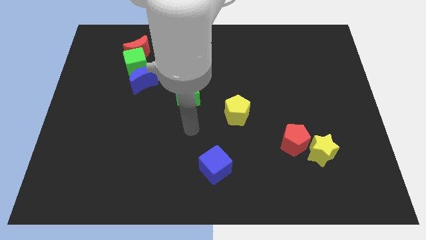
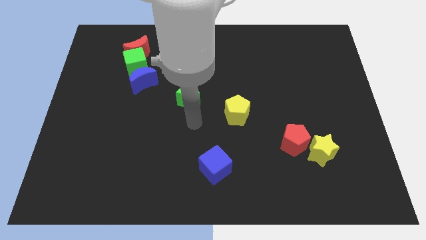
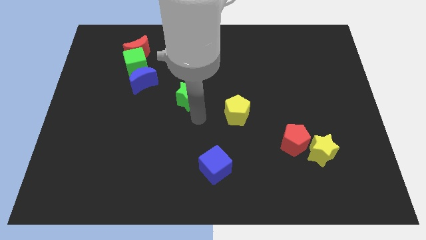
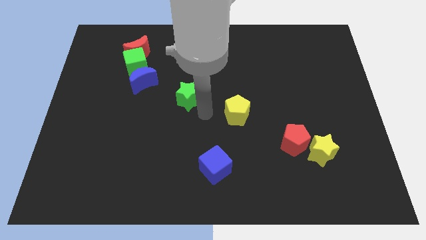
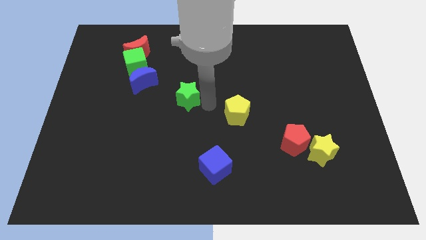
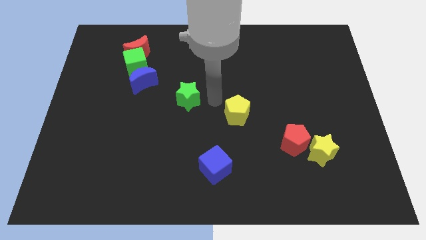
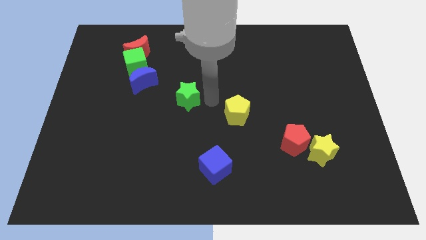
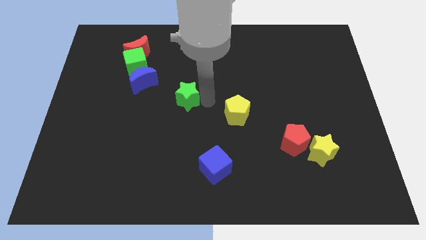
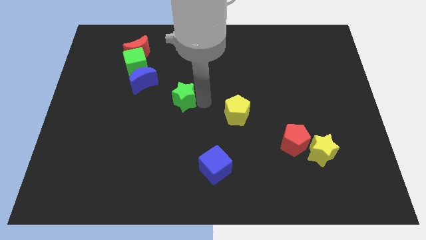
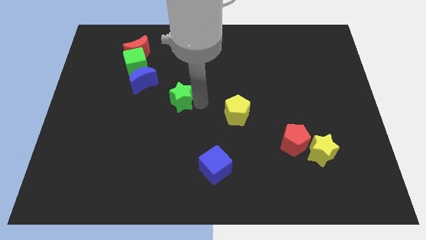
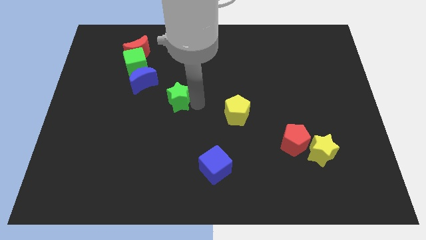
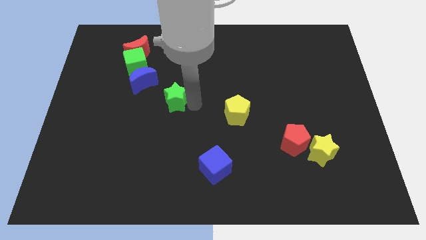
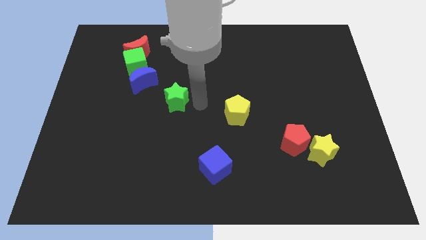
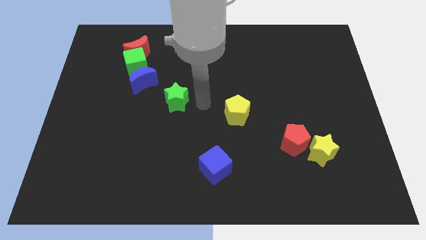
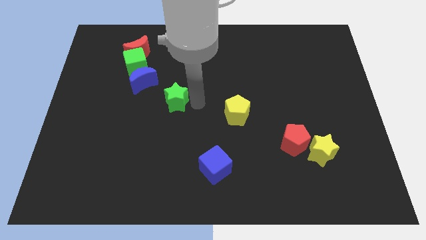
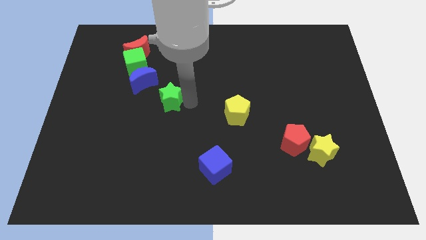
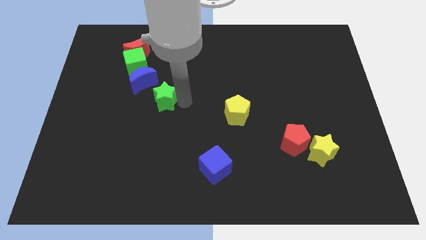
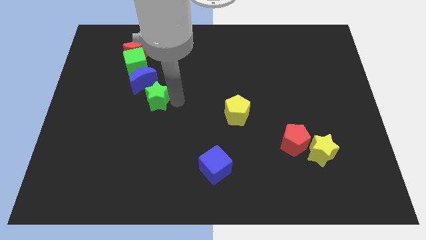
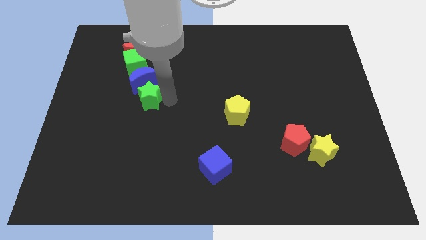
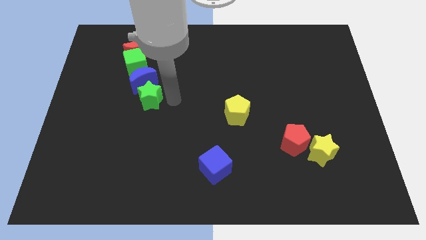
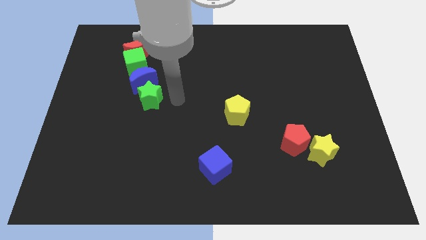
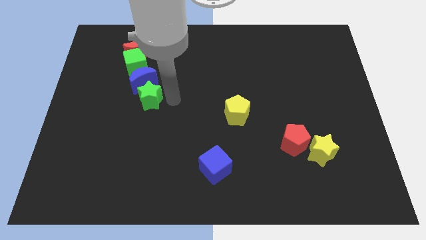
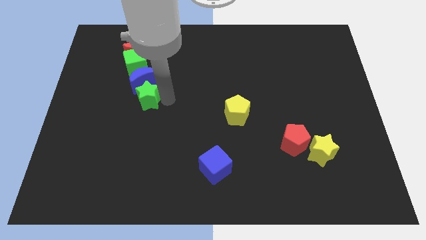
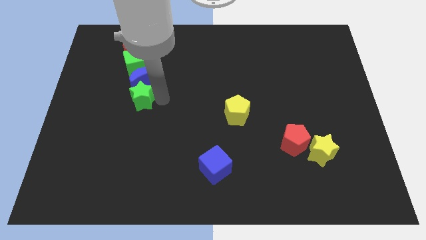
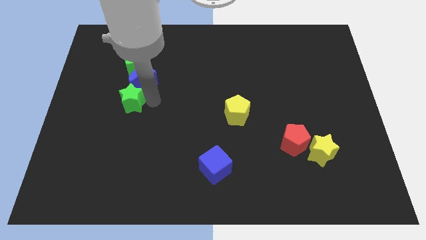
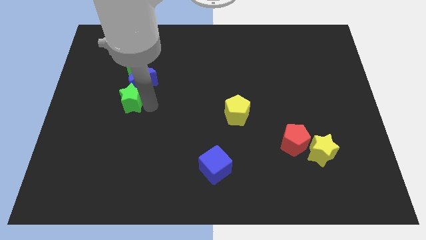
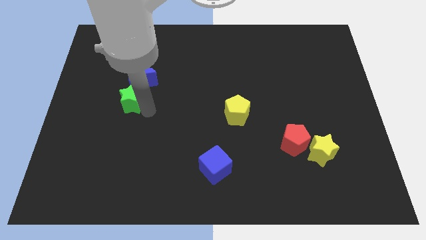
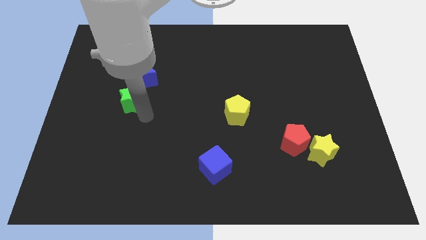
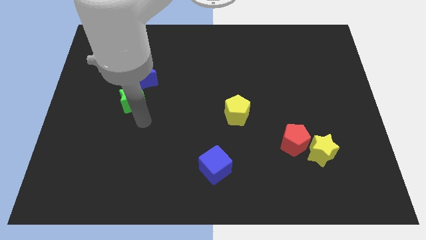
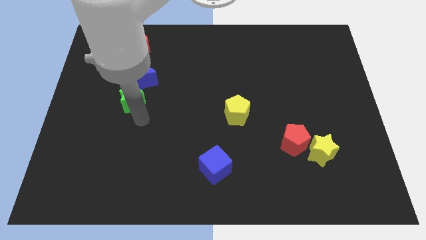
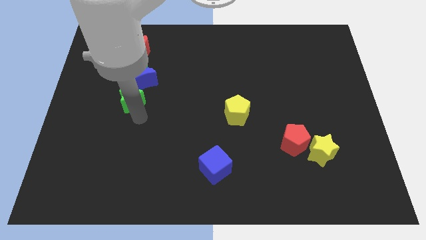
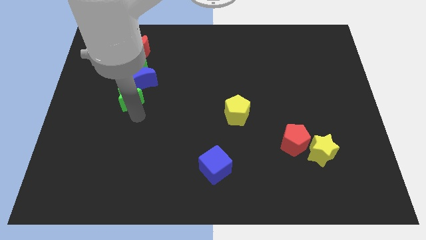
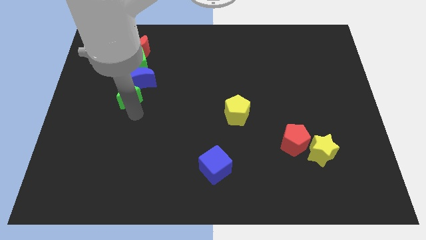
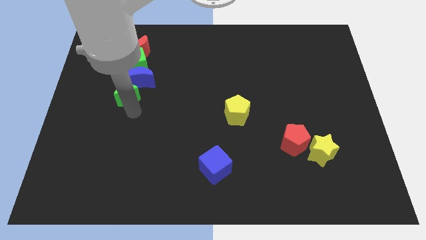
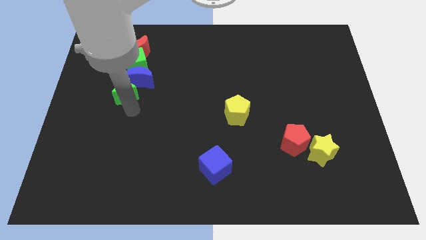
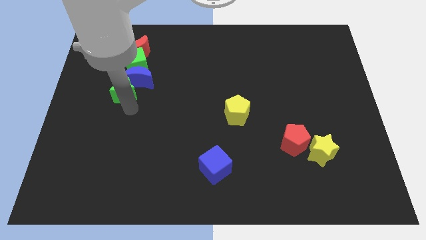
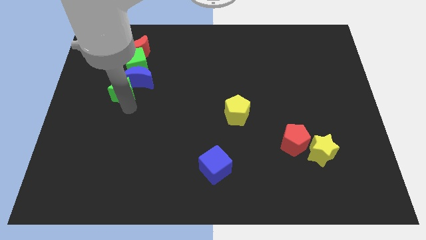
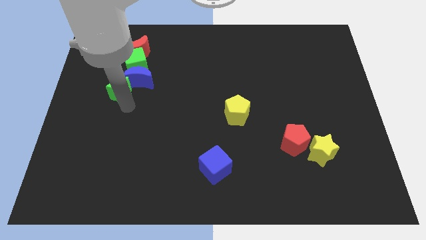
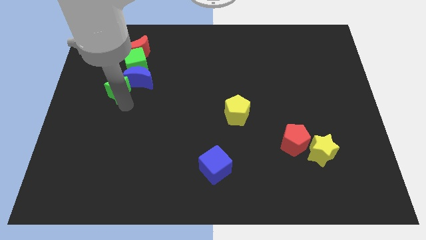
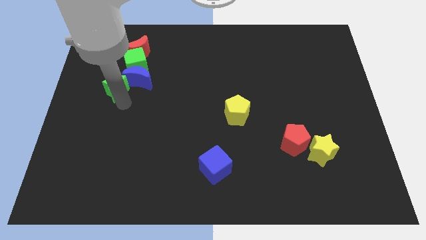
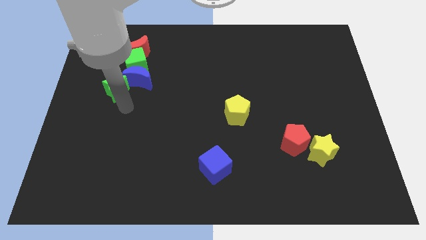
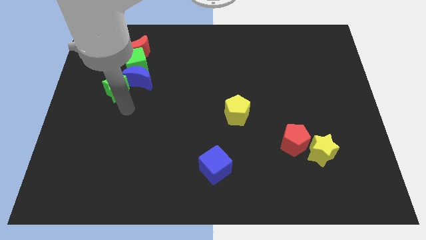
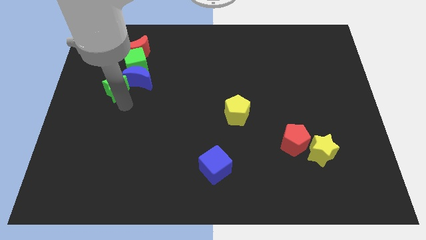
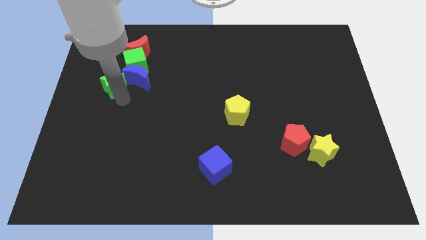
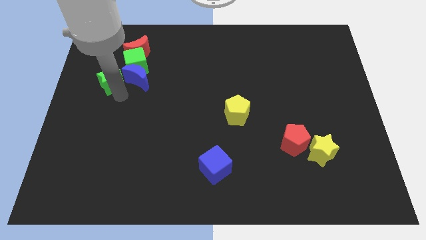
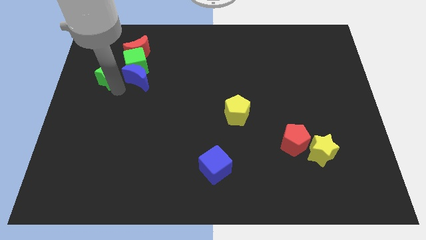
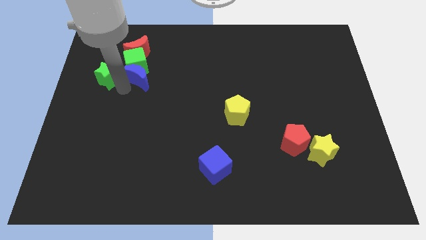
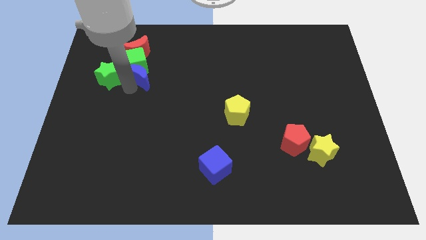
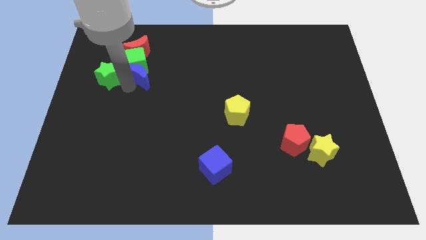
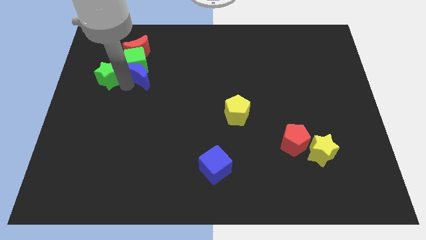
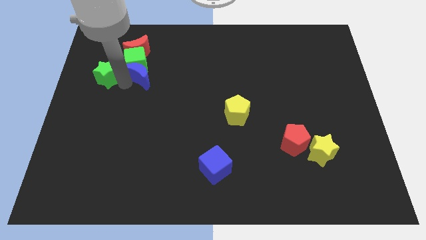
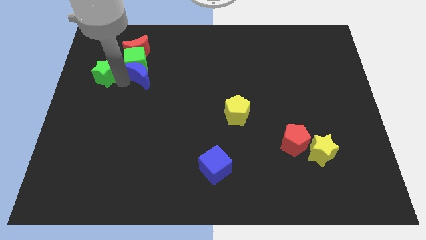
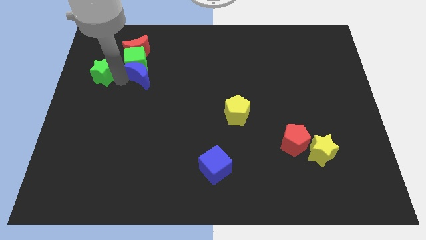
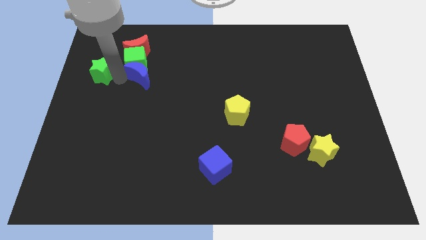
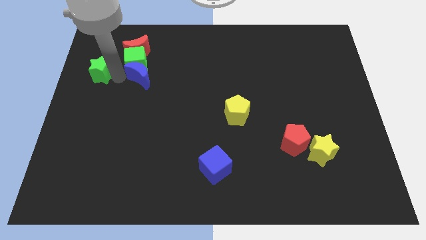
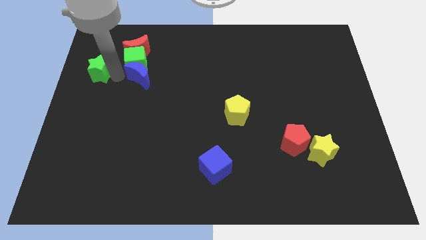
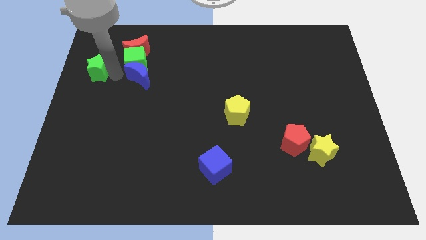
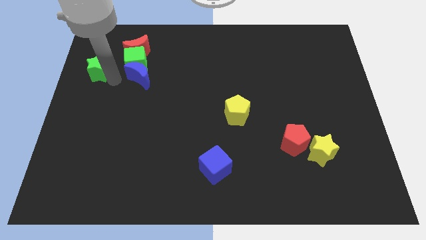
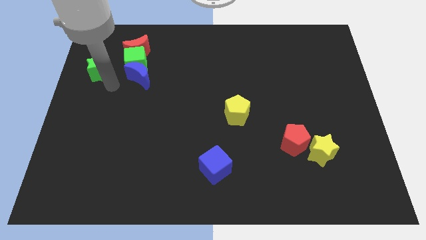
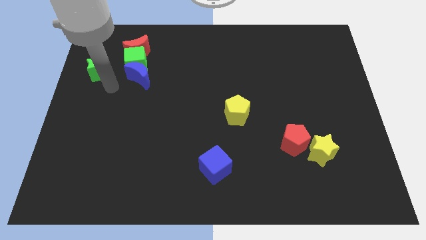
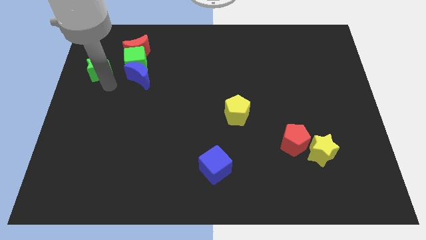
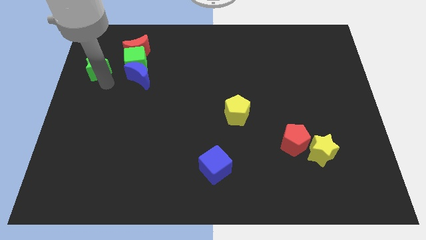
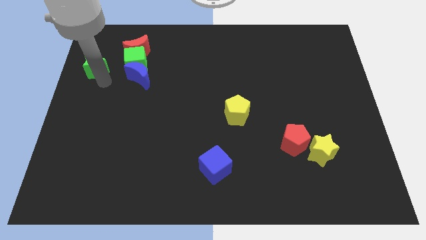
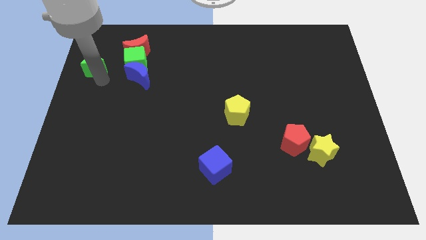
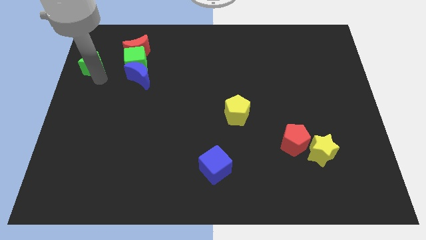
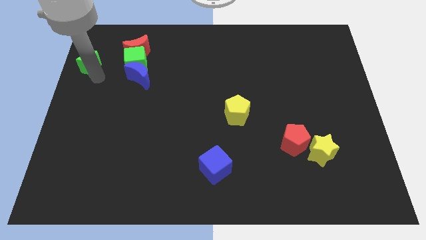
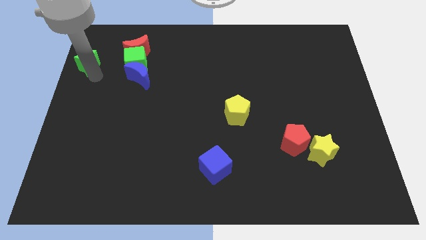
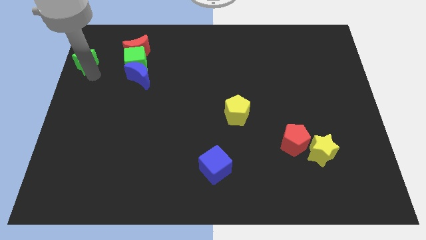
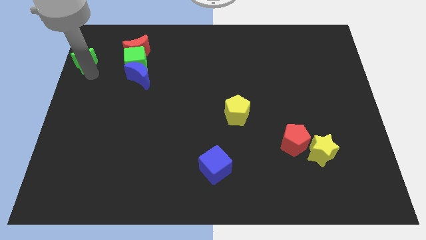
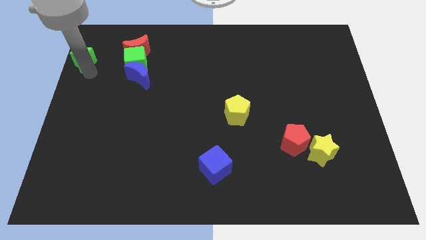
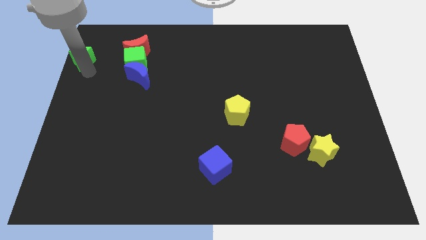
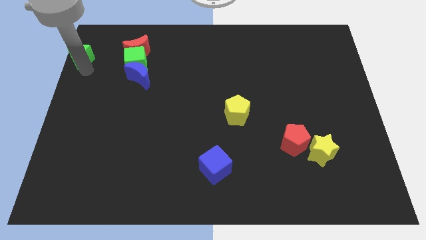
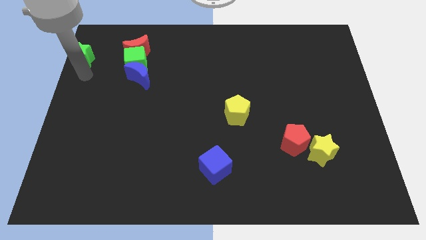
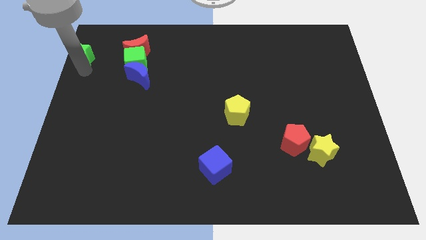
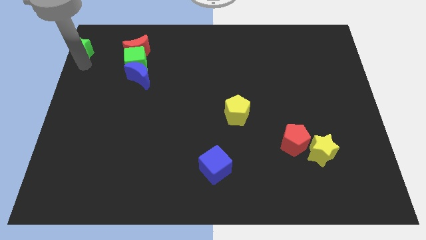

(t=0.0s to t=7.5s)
slide the green star to the upper left corner
